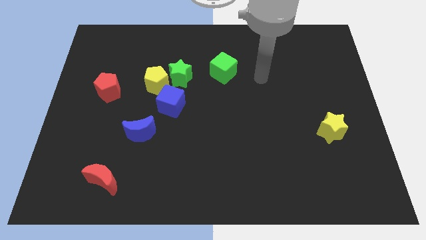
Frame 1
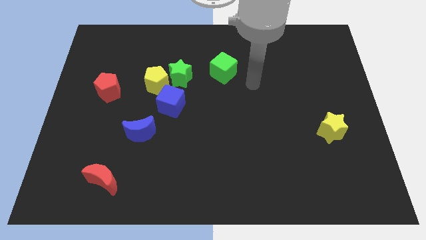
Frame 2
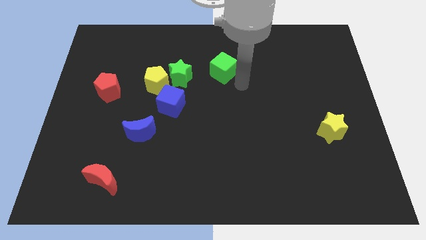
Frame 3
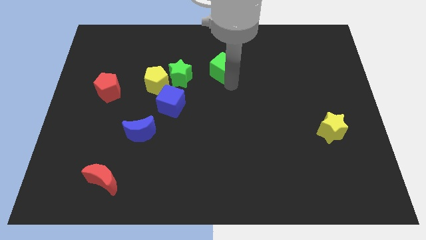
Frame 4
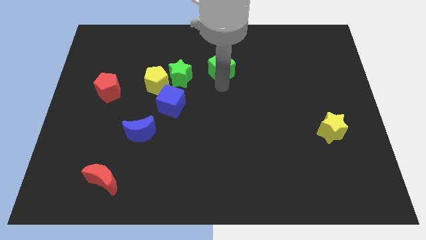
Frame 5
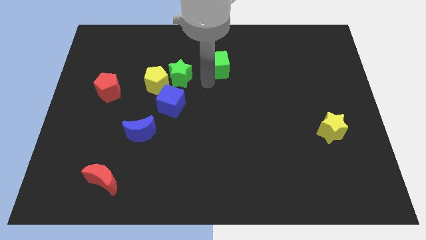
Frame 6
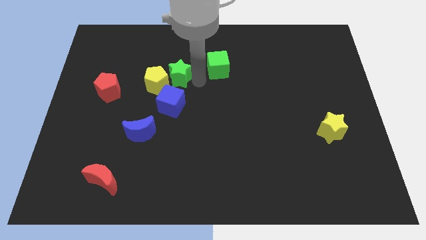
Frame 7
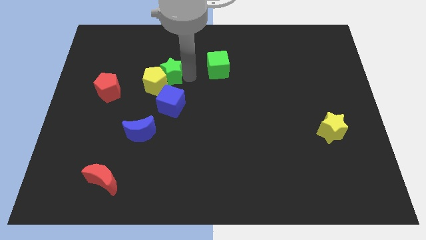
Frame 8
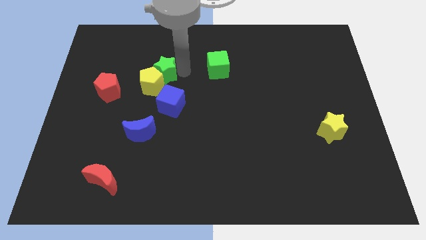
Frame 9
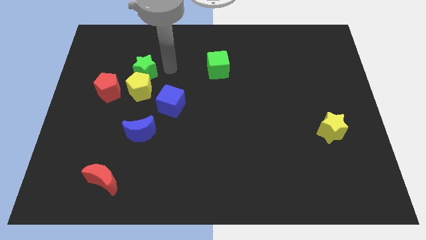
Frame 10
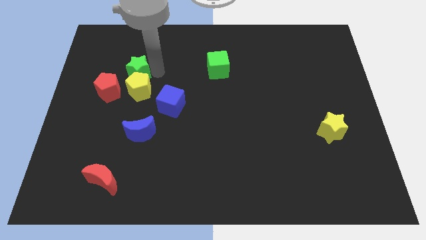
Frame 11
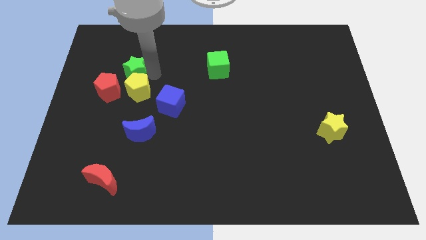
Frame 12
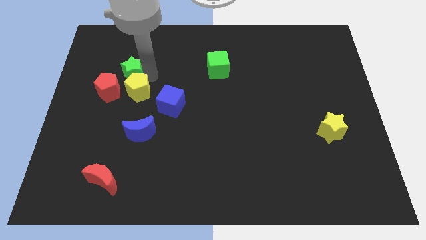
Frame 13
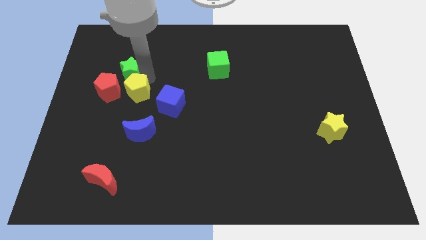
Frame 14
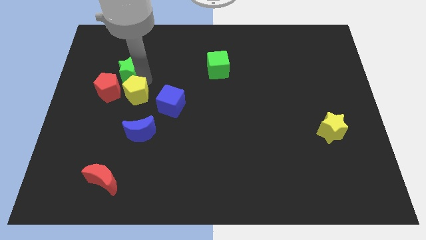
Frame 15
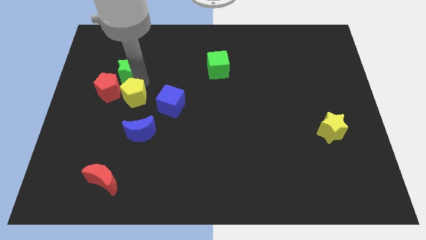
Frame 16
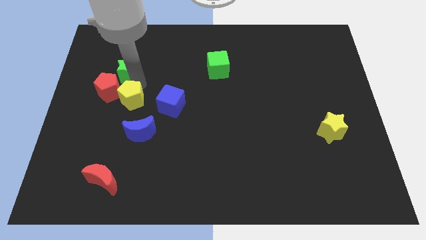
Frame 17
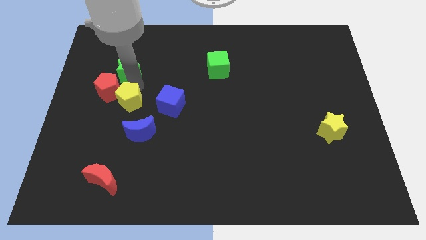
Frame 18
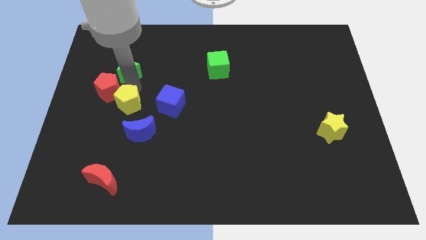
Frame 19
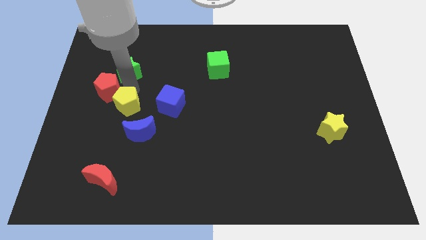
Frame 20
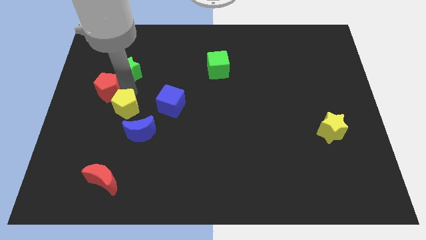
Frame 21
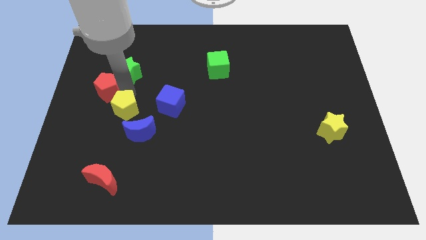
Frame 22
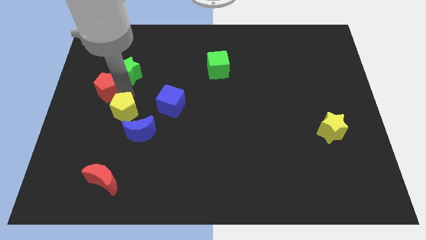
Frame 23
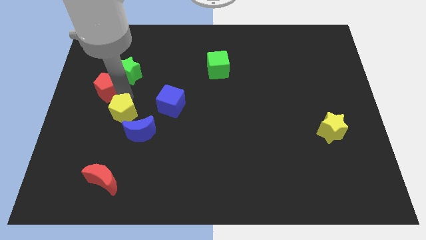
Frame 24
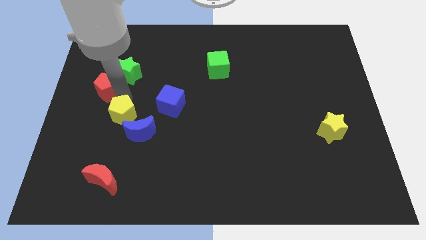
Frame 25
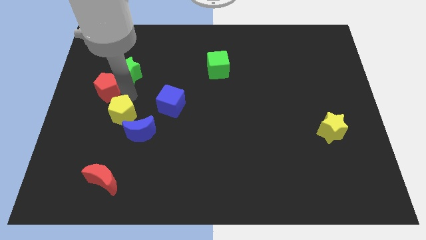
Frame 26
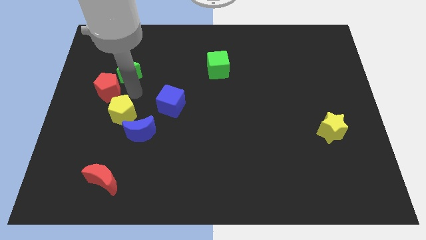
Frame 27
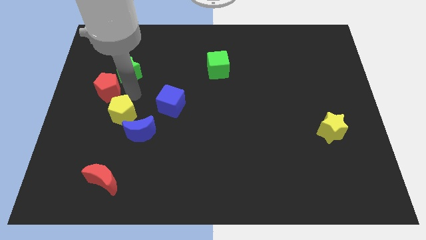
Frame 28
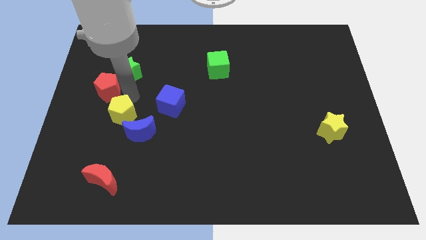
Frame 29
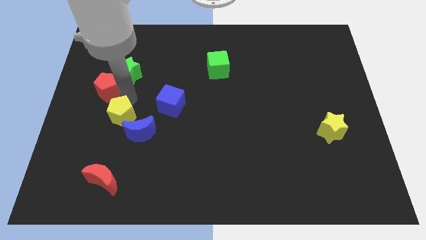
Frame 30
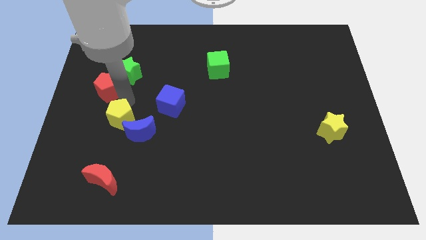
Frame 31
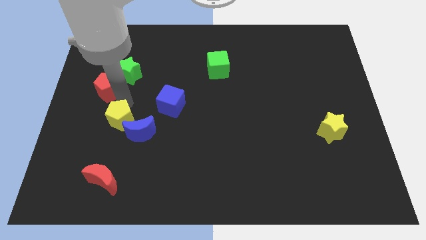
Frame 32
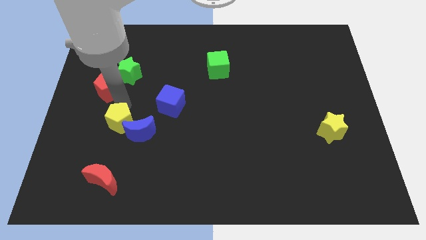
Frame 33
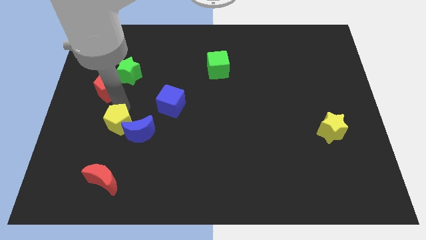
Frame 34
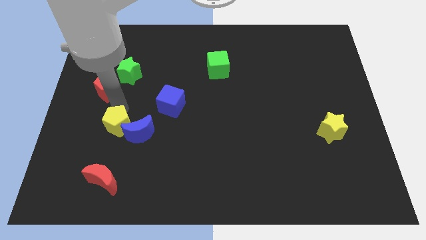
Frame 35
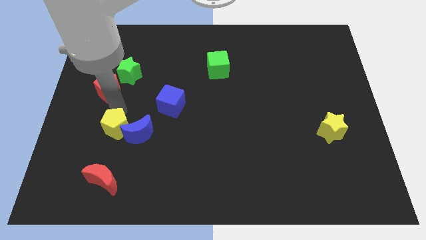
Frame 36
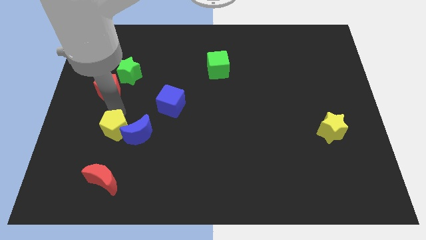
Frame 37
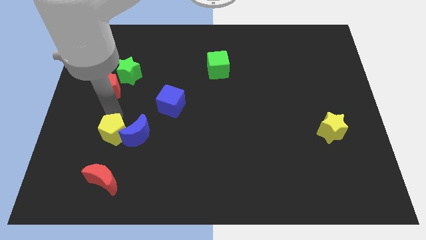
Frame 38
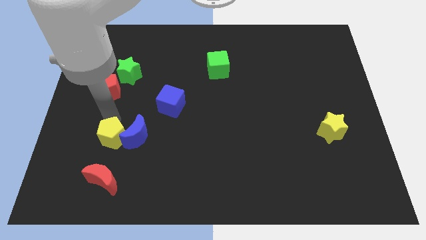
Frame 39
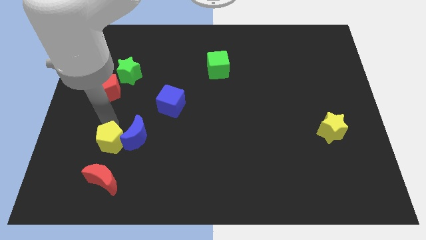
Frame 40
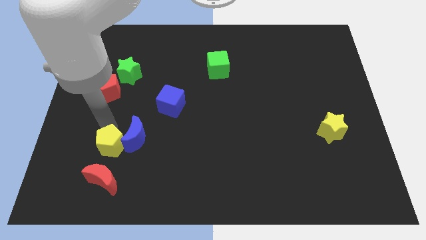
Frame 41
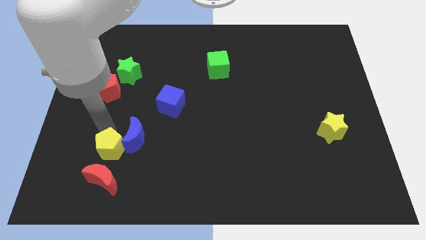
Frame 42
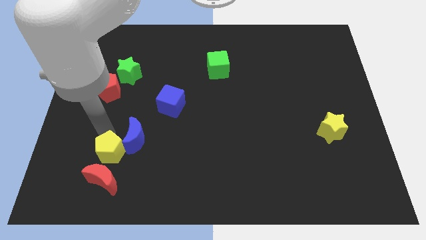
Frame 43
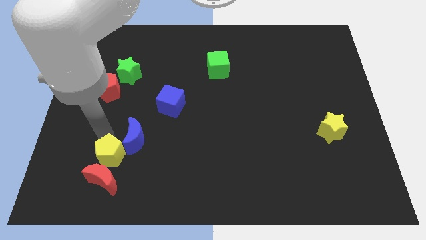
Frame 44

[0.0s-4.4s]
move the yellow pentagon close to the red moon

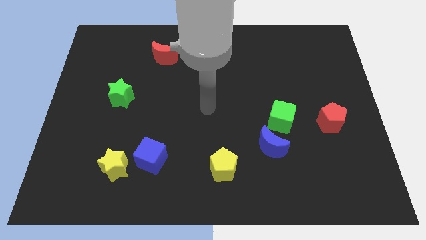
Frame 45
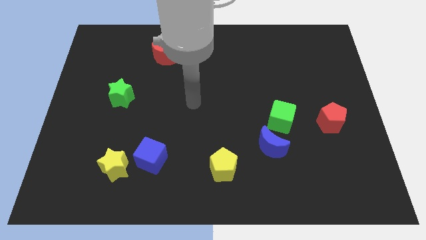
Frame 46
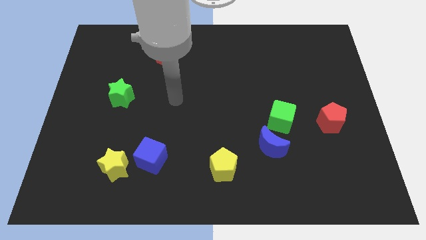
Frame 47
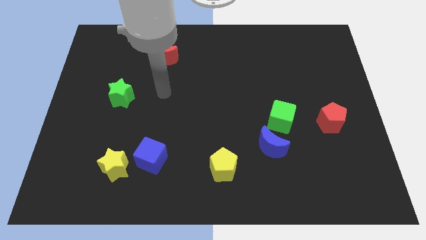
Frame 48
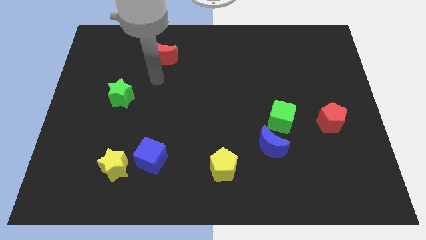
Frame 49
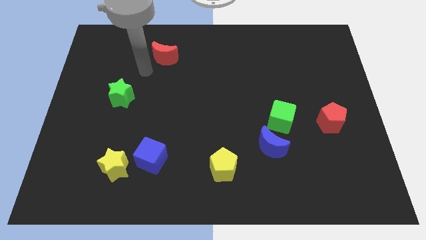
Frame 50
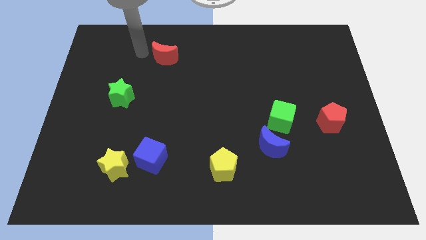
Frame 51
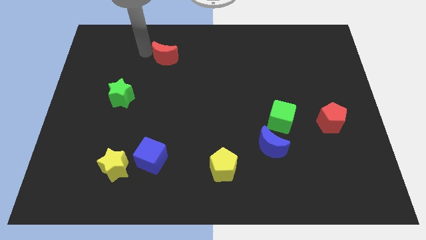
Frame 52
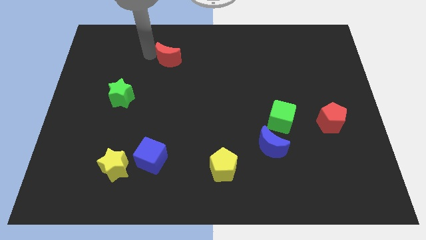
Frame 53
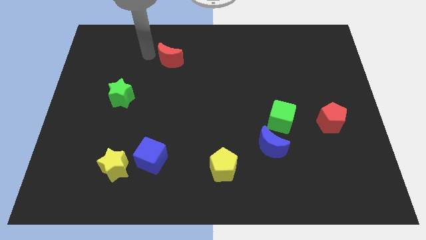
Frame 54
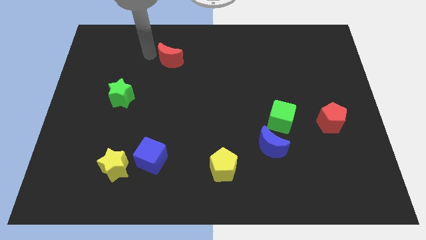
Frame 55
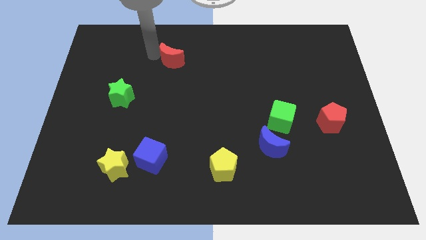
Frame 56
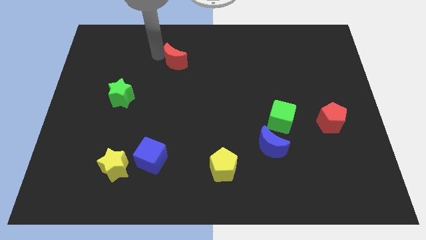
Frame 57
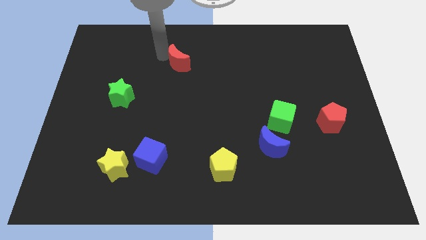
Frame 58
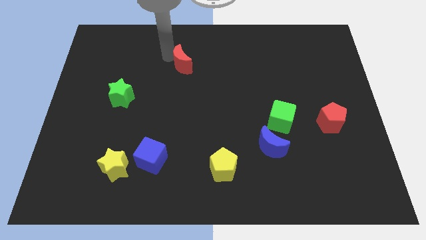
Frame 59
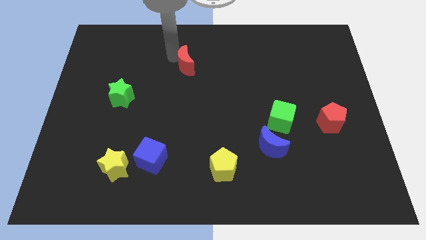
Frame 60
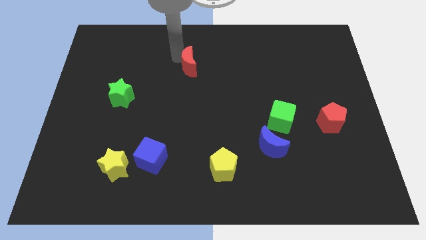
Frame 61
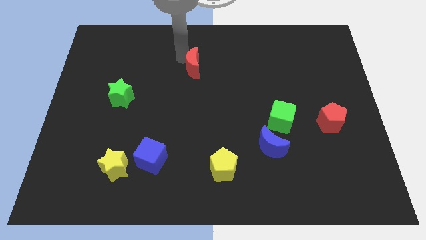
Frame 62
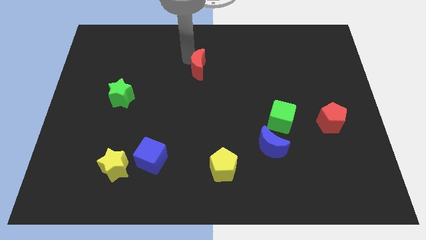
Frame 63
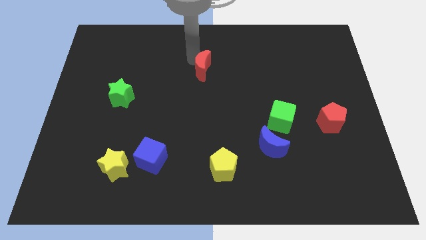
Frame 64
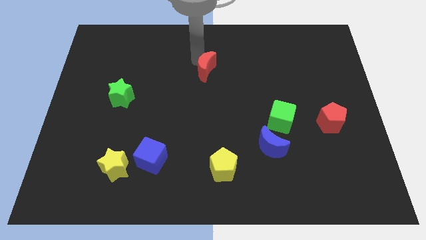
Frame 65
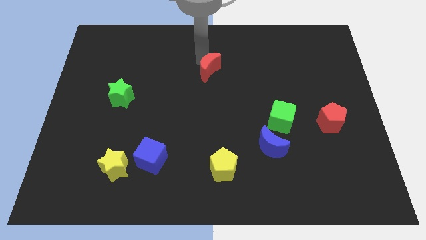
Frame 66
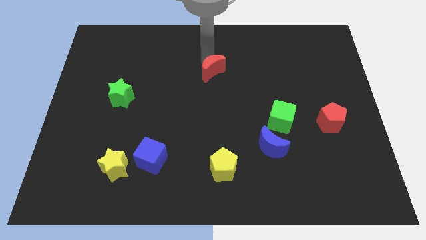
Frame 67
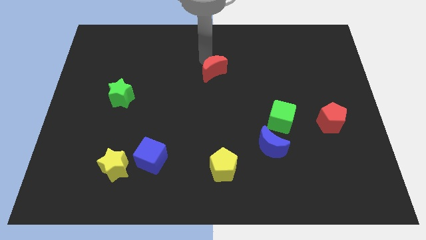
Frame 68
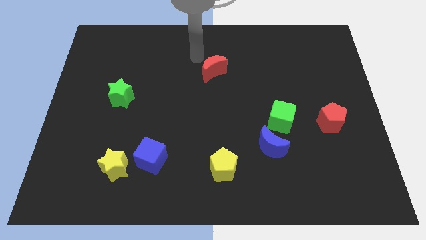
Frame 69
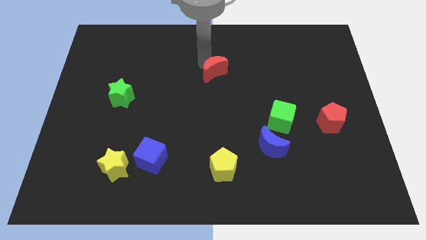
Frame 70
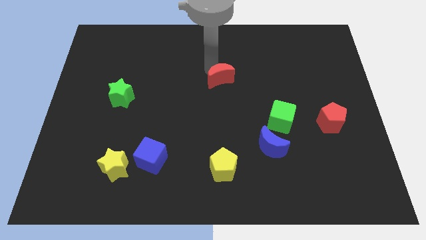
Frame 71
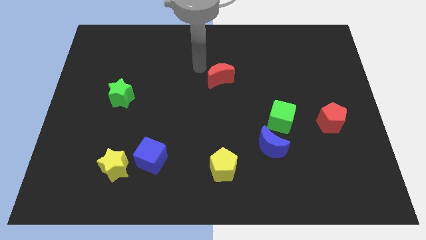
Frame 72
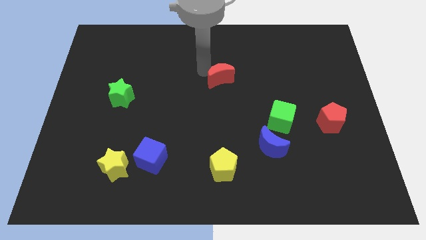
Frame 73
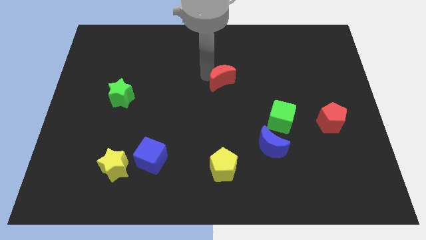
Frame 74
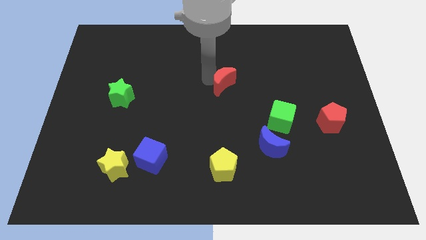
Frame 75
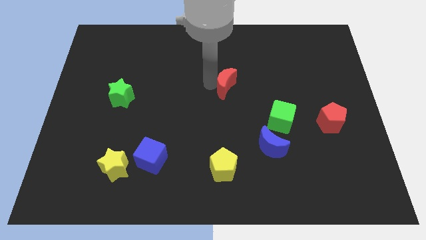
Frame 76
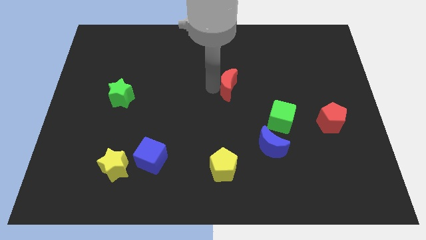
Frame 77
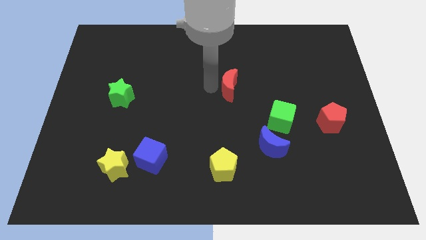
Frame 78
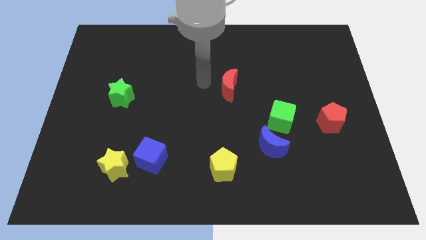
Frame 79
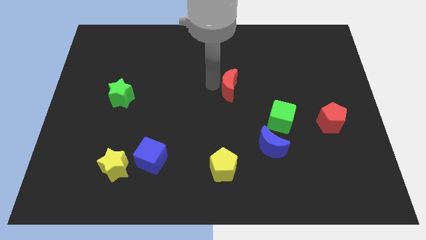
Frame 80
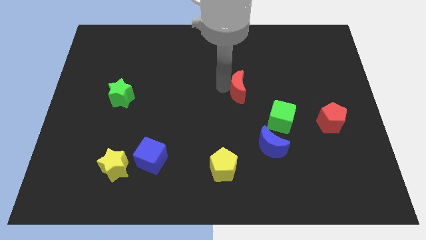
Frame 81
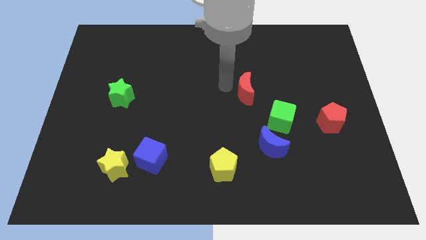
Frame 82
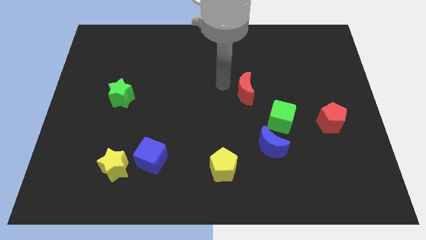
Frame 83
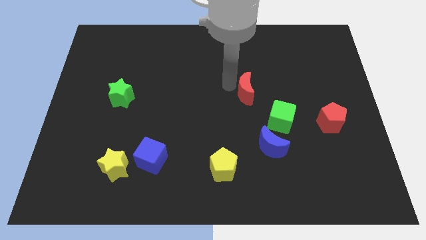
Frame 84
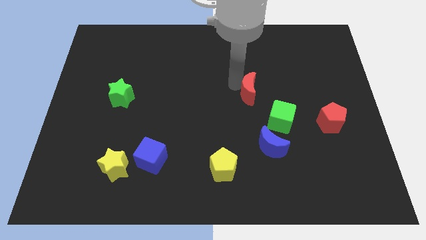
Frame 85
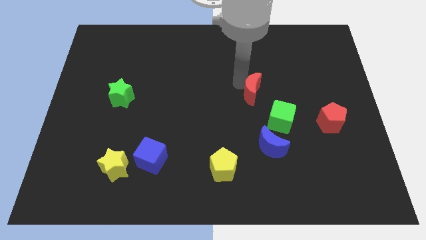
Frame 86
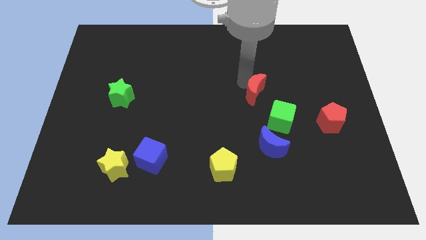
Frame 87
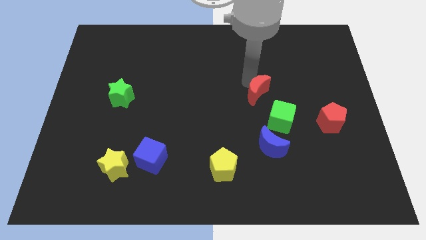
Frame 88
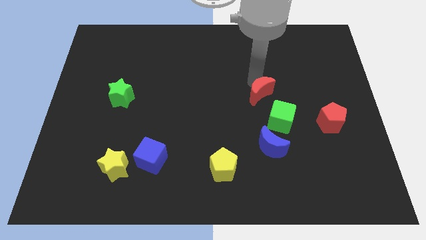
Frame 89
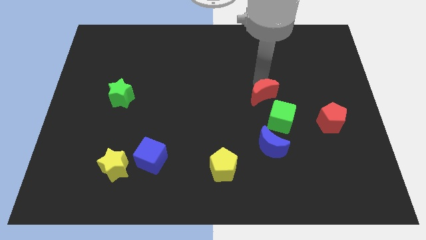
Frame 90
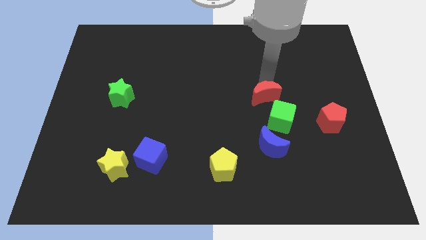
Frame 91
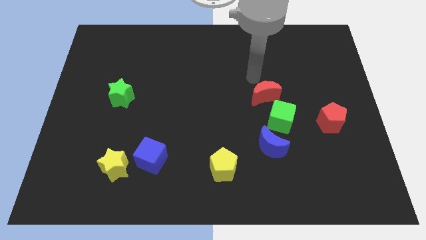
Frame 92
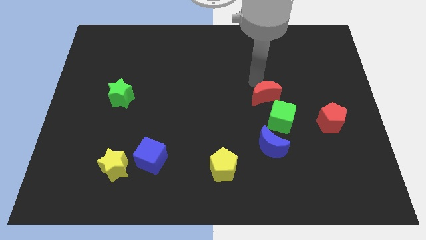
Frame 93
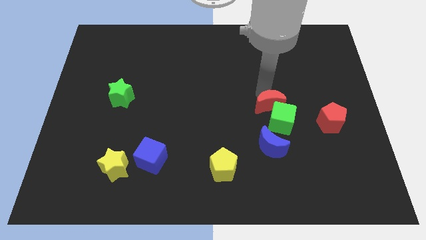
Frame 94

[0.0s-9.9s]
slide the red moon to the green cube
